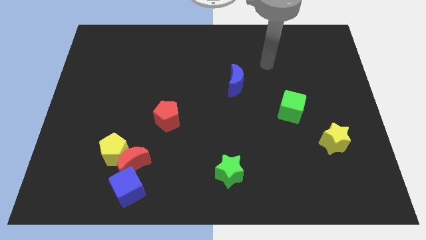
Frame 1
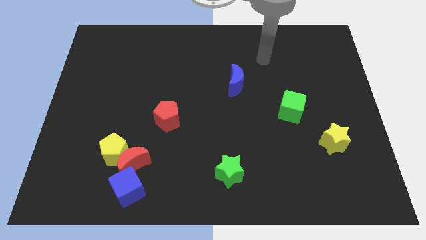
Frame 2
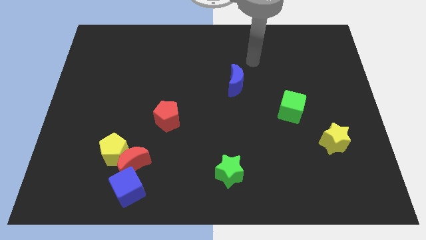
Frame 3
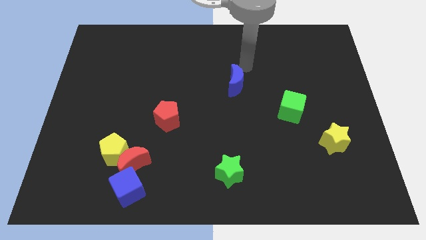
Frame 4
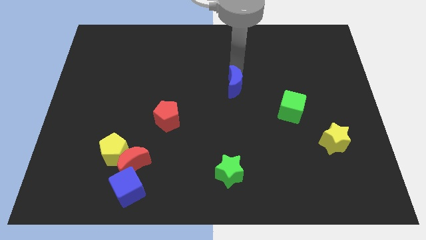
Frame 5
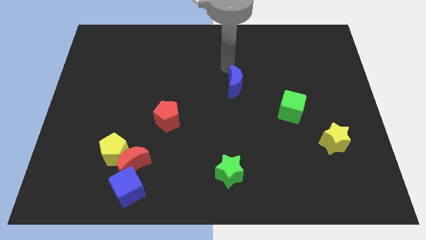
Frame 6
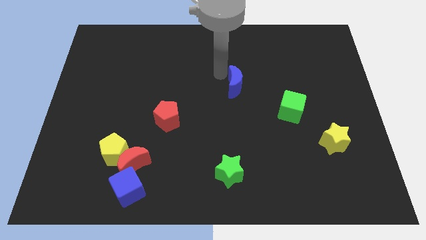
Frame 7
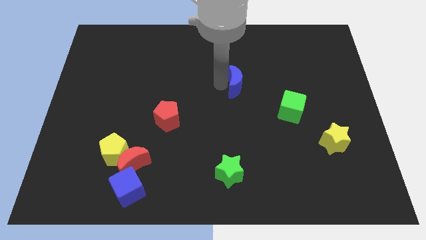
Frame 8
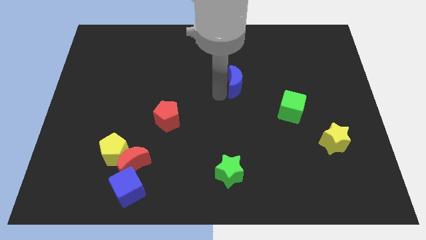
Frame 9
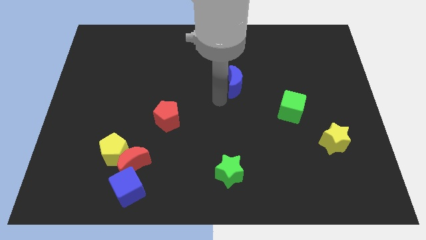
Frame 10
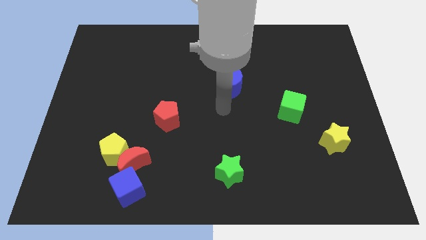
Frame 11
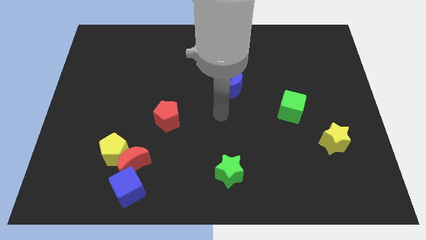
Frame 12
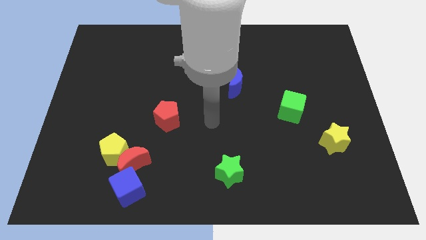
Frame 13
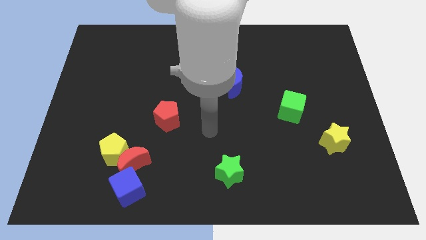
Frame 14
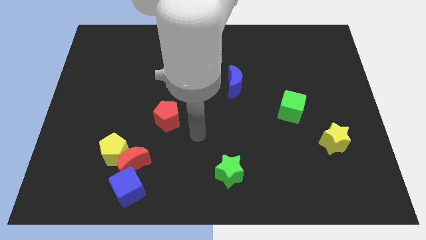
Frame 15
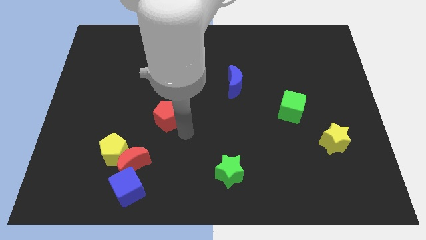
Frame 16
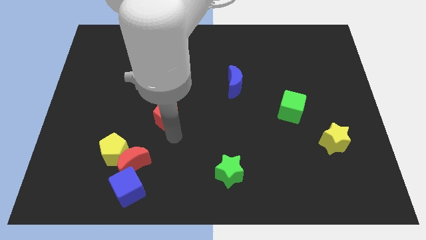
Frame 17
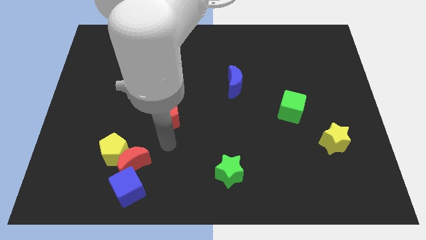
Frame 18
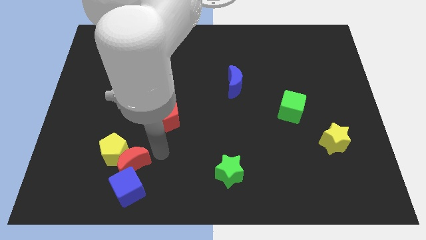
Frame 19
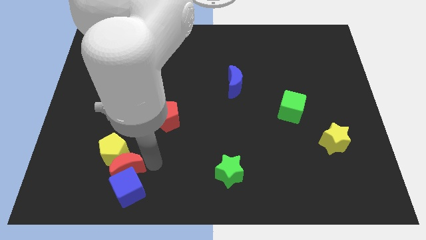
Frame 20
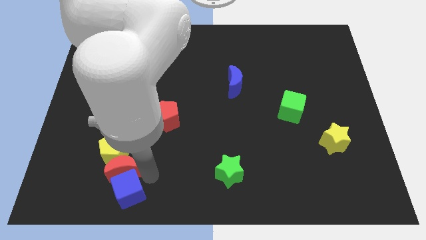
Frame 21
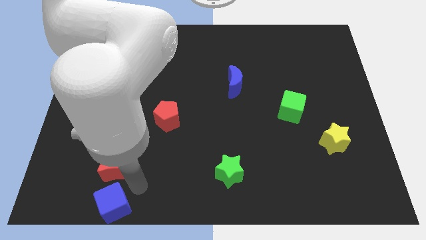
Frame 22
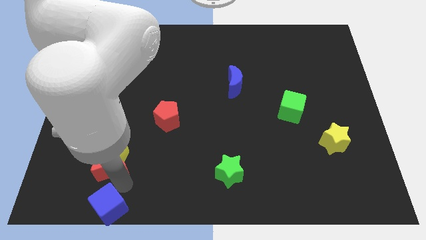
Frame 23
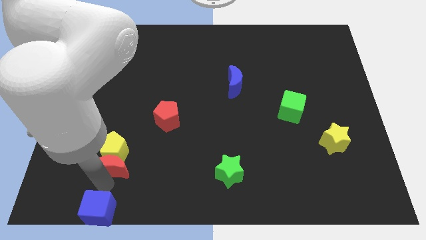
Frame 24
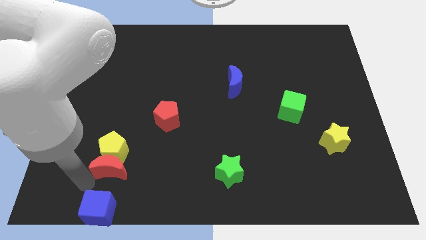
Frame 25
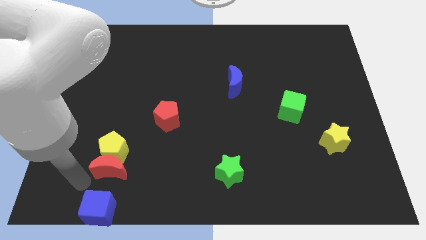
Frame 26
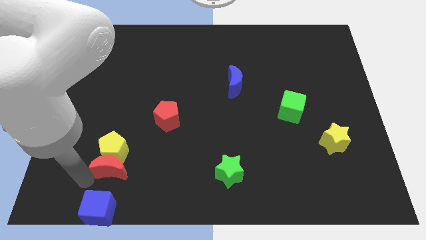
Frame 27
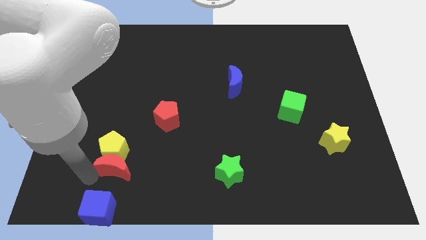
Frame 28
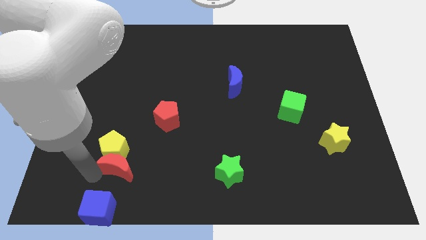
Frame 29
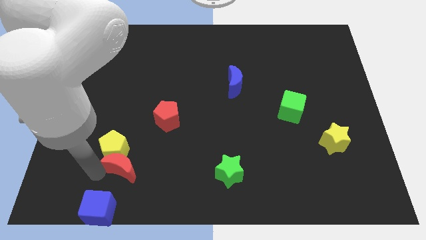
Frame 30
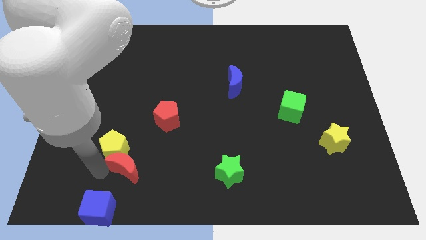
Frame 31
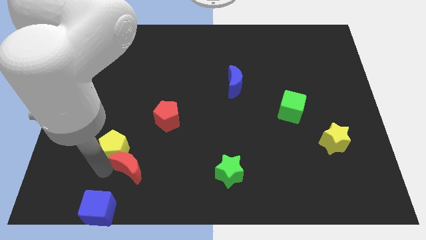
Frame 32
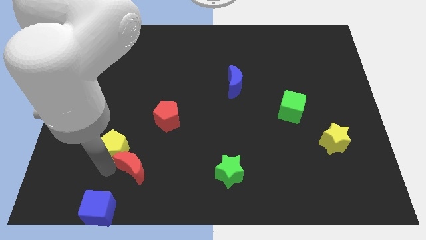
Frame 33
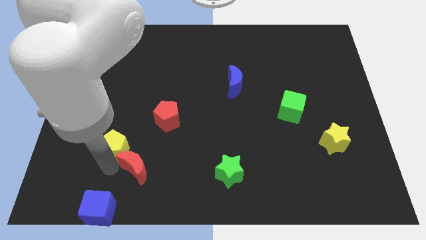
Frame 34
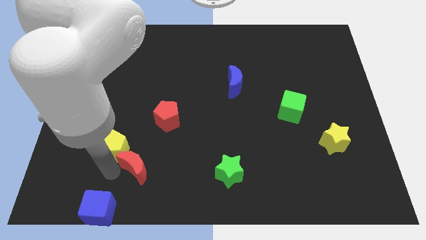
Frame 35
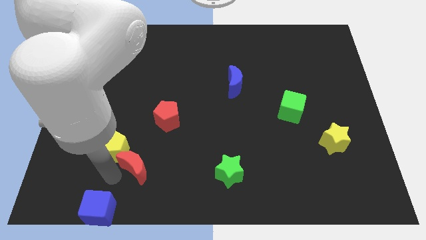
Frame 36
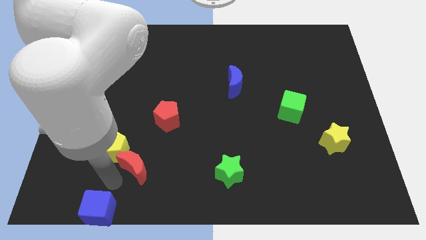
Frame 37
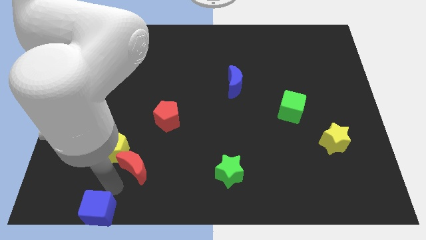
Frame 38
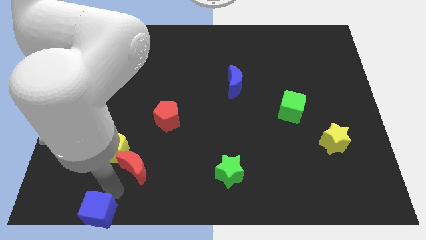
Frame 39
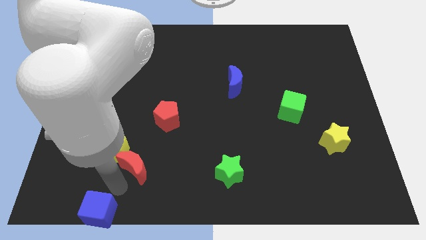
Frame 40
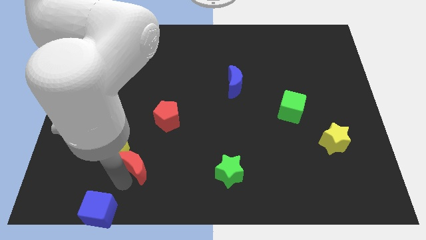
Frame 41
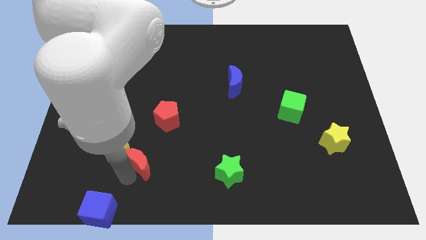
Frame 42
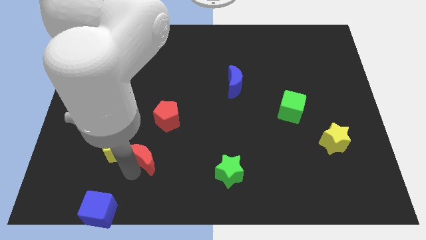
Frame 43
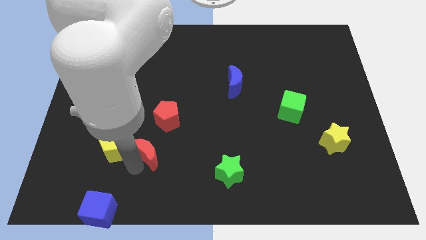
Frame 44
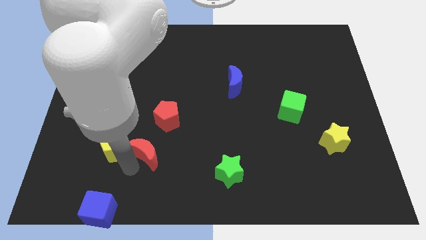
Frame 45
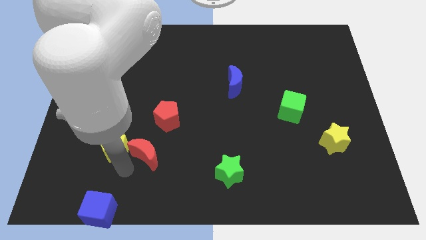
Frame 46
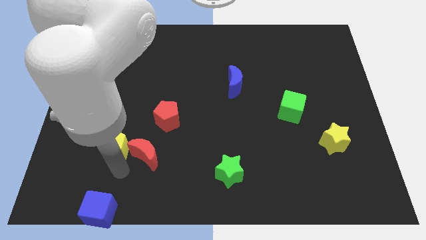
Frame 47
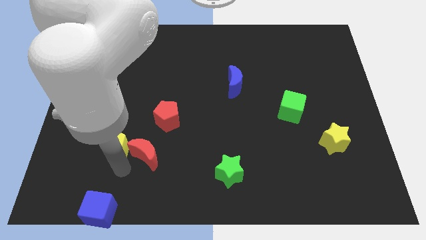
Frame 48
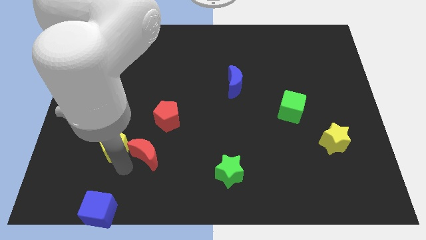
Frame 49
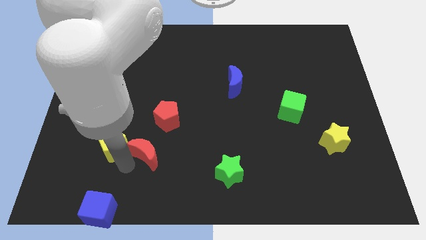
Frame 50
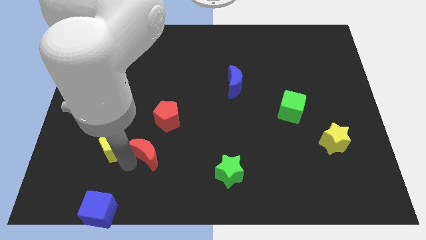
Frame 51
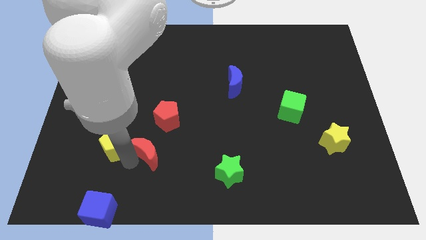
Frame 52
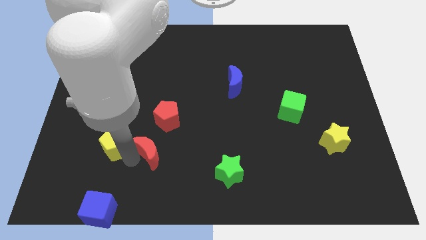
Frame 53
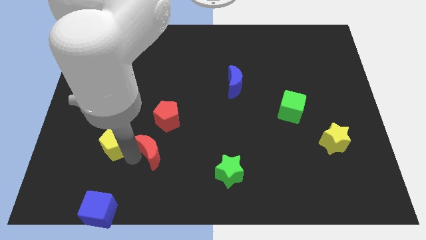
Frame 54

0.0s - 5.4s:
pull the red moon apart from the yellow pentagon and blue cube

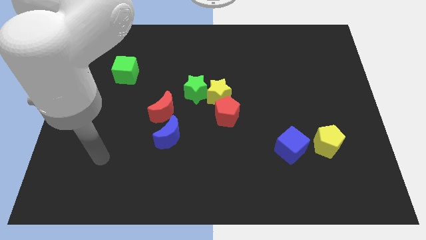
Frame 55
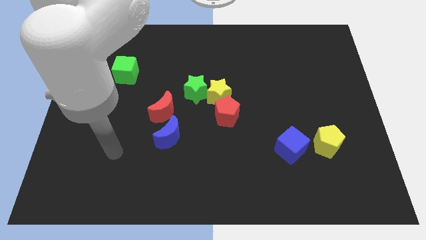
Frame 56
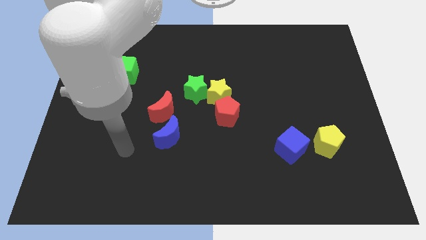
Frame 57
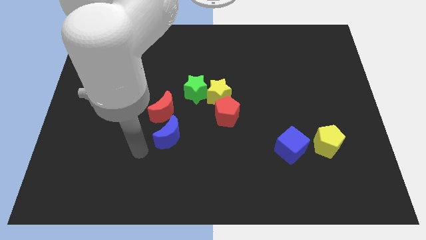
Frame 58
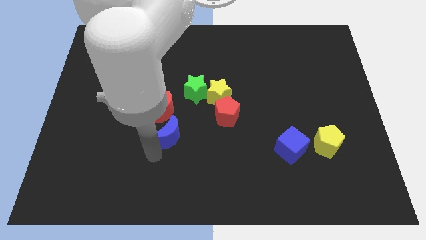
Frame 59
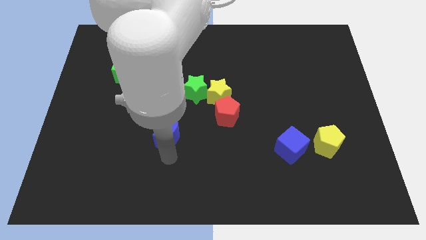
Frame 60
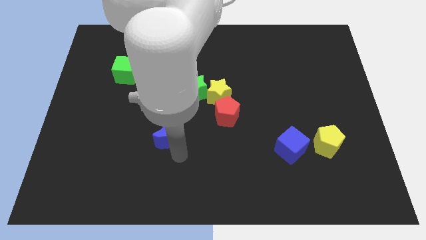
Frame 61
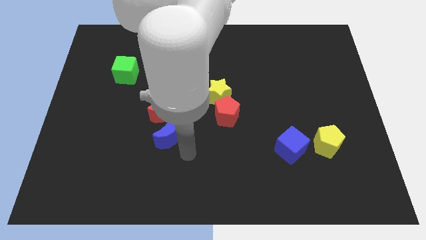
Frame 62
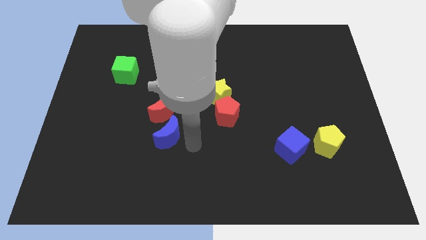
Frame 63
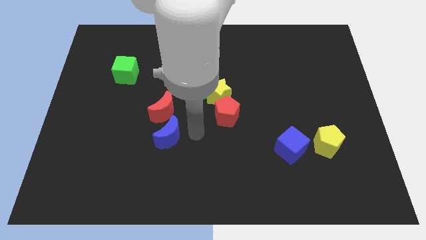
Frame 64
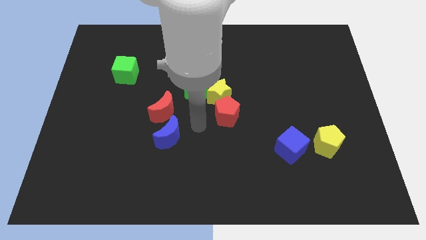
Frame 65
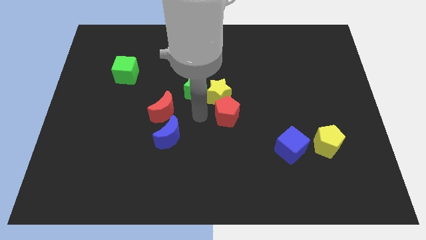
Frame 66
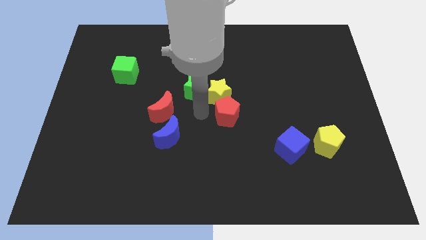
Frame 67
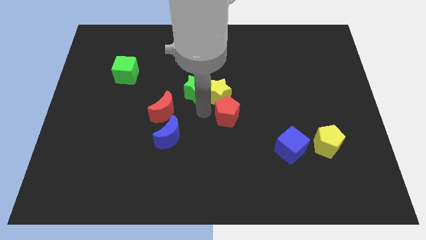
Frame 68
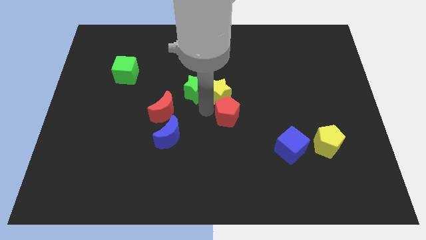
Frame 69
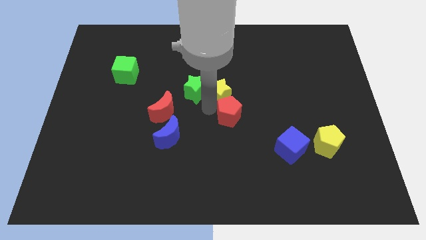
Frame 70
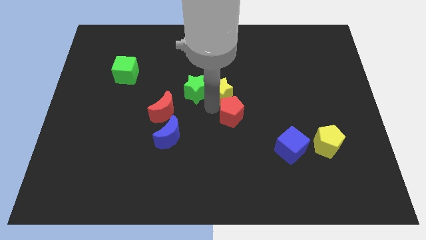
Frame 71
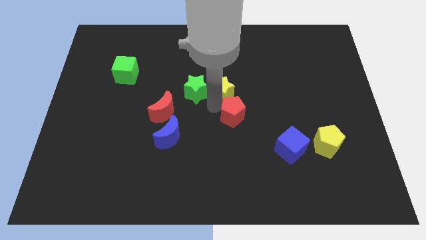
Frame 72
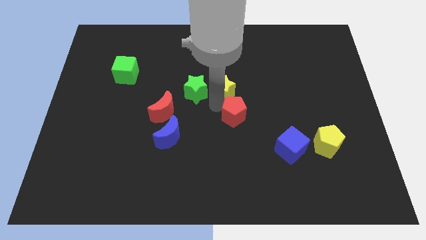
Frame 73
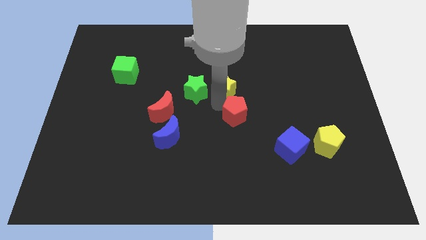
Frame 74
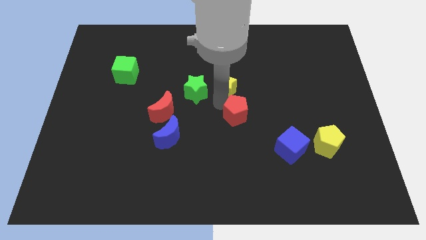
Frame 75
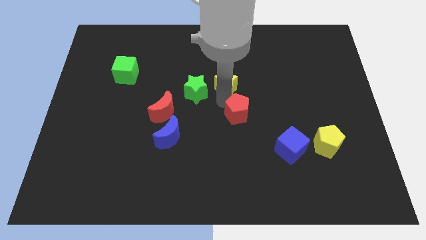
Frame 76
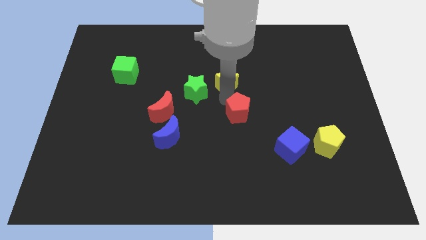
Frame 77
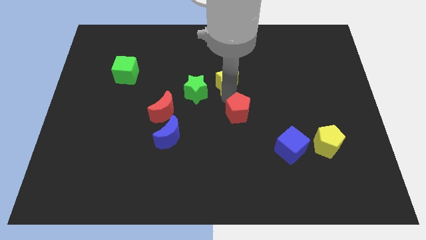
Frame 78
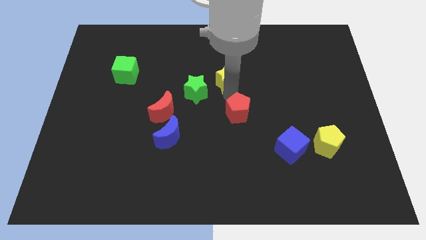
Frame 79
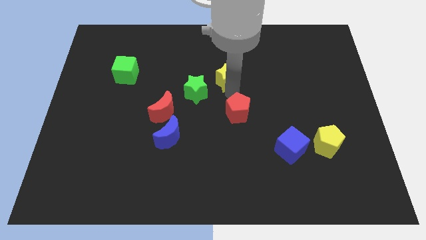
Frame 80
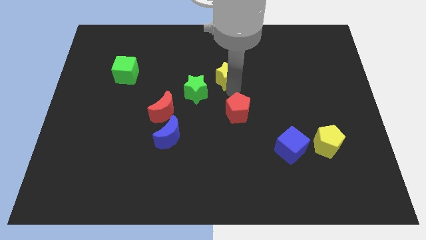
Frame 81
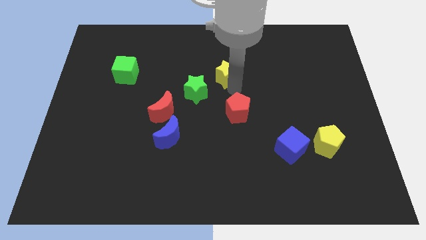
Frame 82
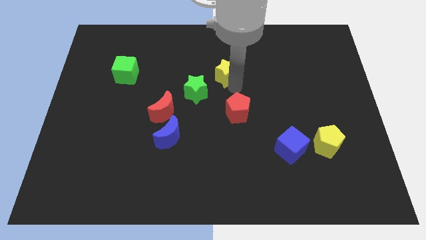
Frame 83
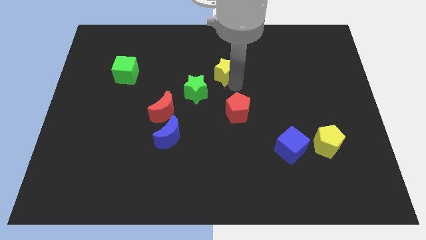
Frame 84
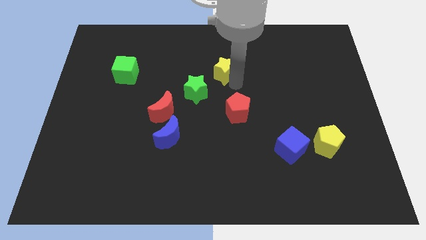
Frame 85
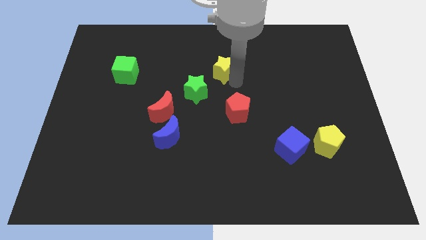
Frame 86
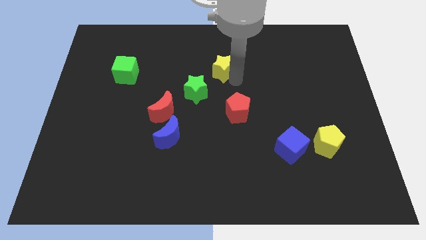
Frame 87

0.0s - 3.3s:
pull the yellow star apart from the green star and red pentagon

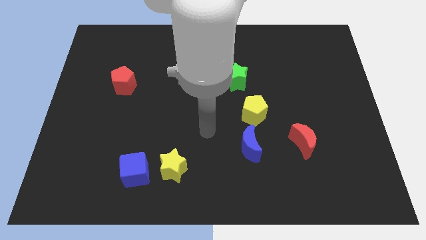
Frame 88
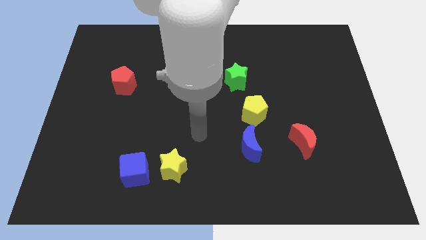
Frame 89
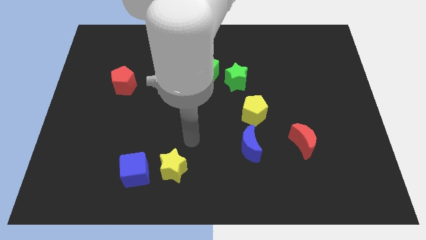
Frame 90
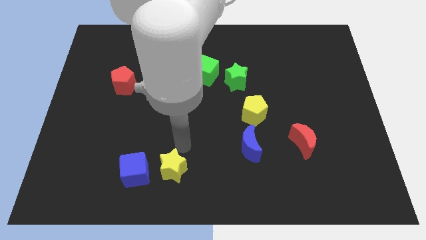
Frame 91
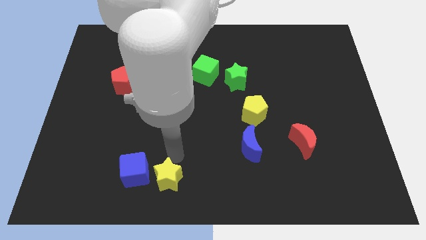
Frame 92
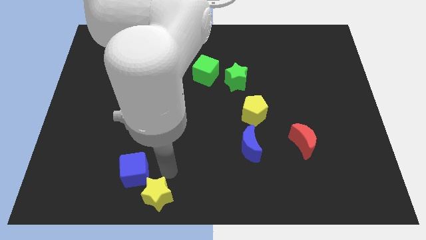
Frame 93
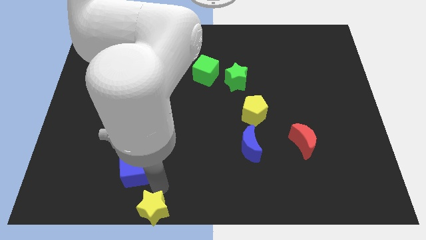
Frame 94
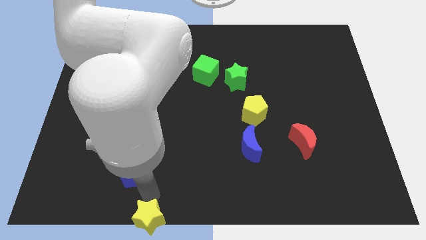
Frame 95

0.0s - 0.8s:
pull the blue cube apart from the yellow star
